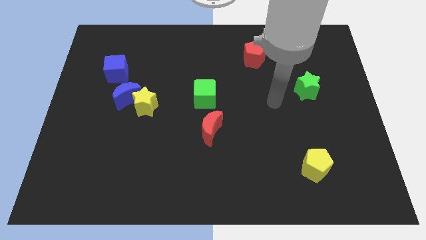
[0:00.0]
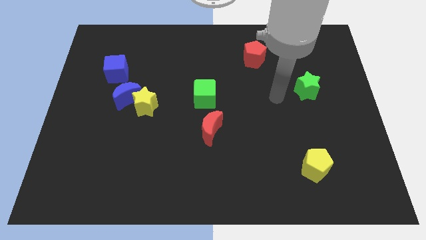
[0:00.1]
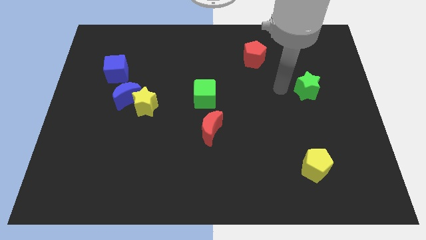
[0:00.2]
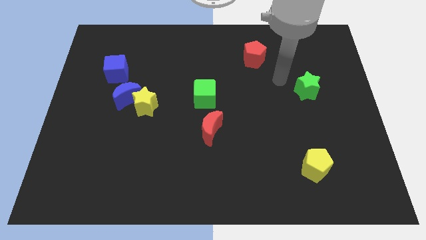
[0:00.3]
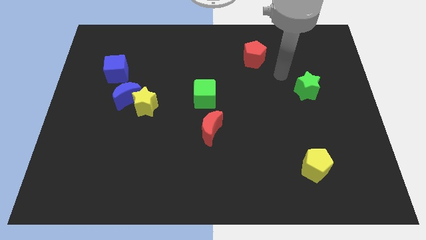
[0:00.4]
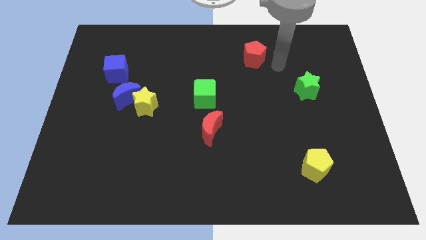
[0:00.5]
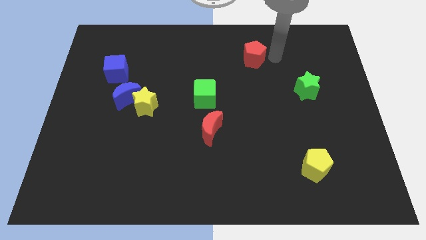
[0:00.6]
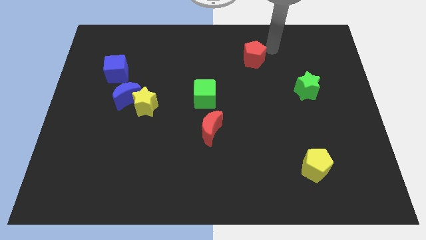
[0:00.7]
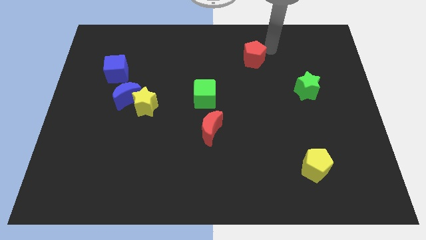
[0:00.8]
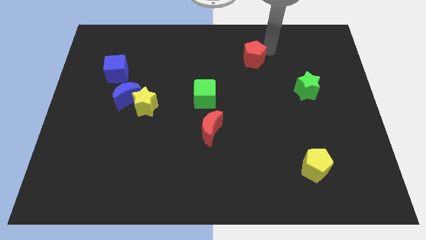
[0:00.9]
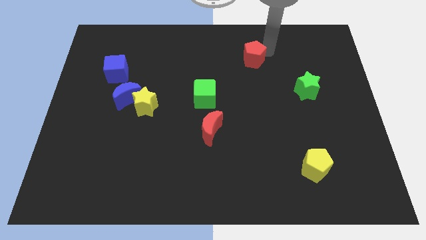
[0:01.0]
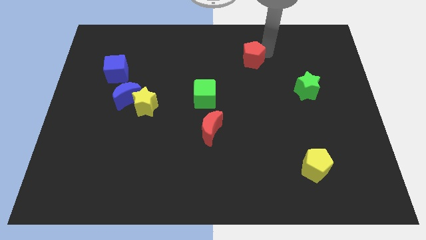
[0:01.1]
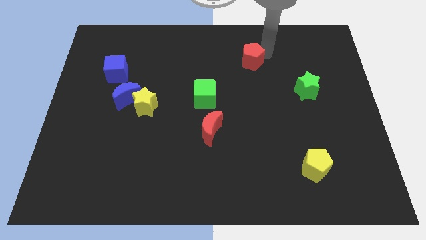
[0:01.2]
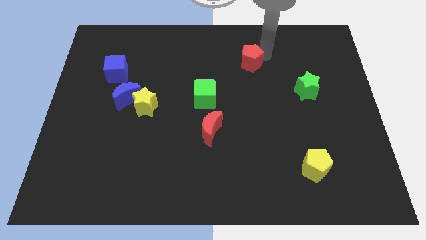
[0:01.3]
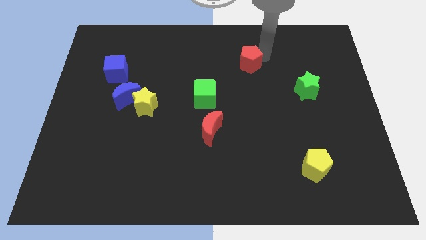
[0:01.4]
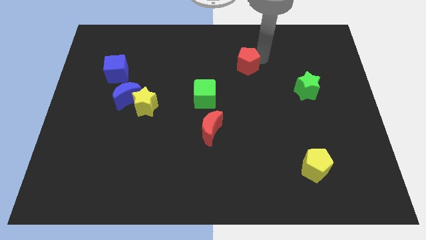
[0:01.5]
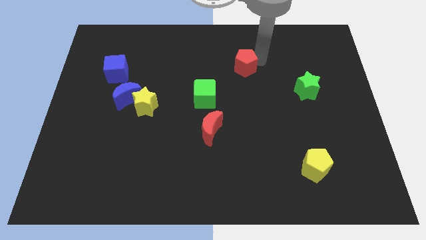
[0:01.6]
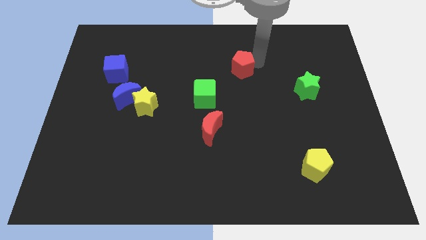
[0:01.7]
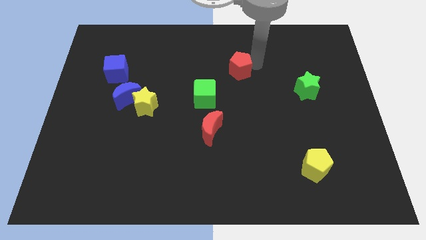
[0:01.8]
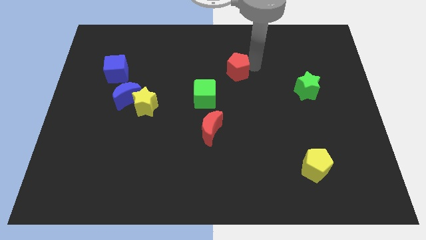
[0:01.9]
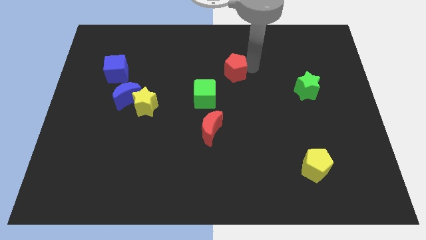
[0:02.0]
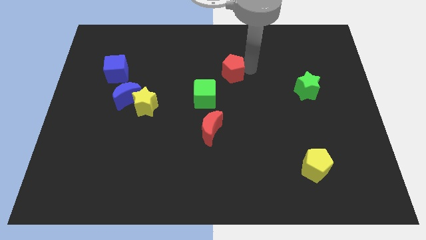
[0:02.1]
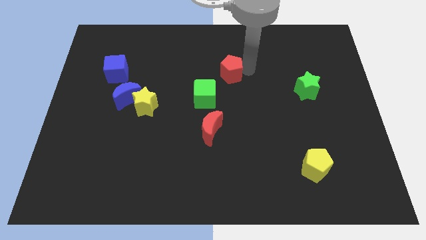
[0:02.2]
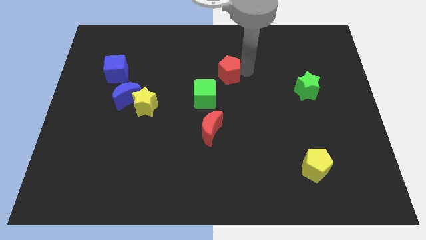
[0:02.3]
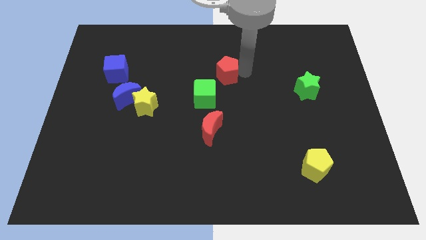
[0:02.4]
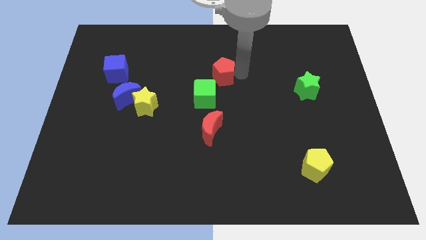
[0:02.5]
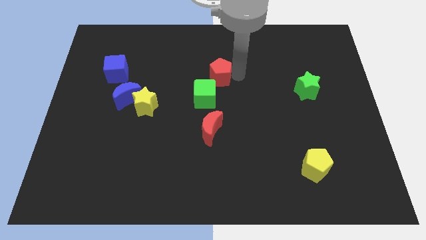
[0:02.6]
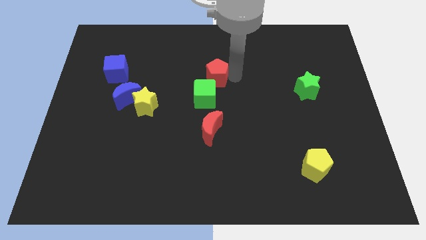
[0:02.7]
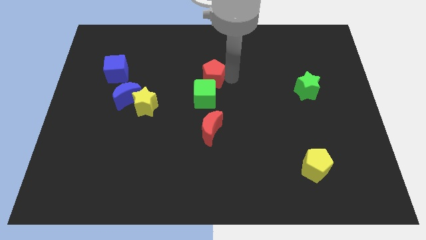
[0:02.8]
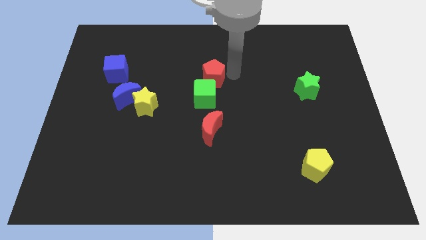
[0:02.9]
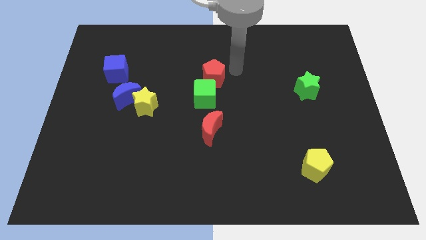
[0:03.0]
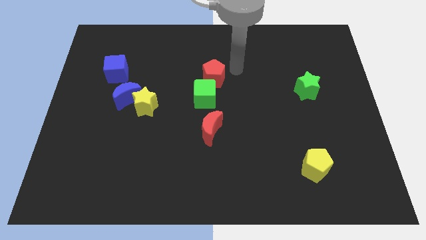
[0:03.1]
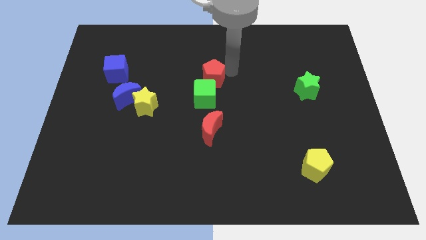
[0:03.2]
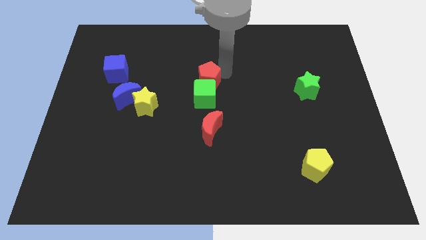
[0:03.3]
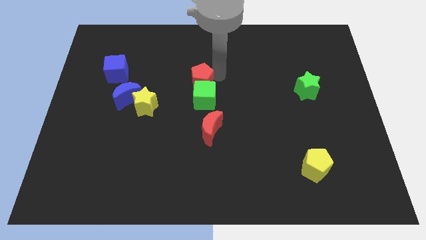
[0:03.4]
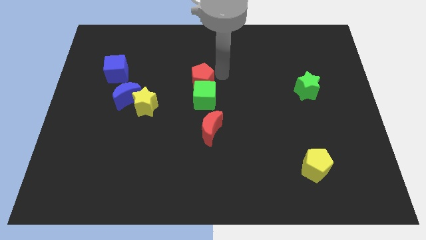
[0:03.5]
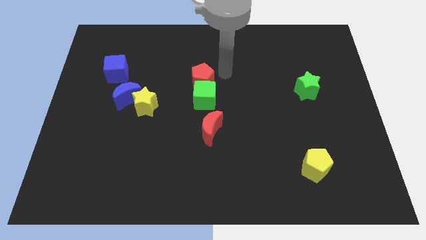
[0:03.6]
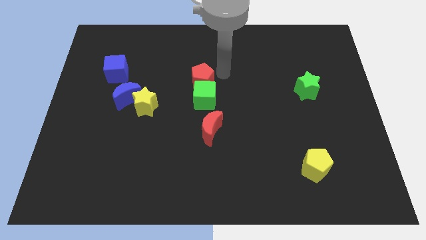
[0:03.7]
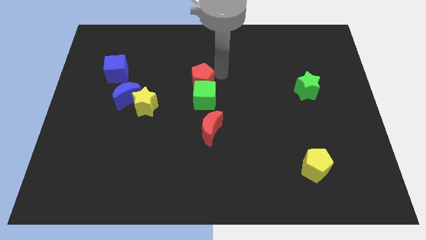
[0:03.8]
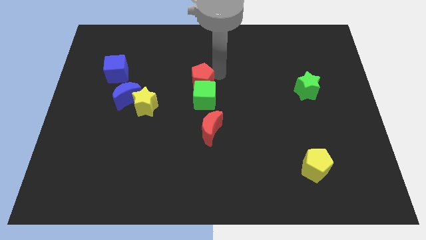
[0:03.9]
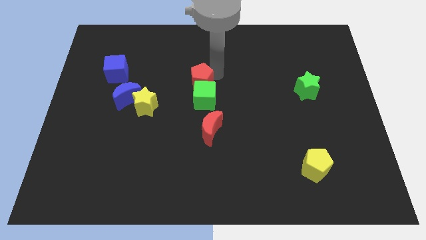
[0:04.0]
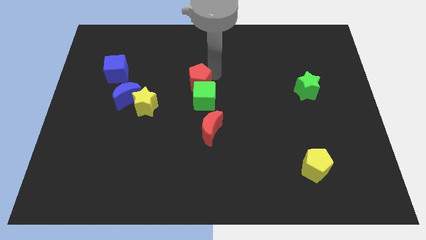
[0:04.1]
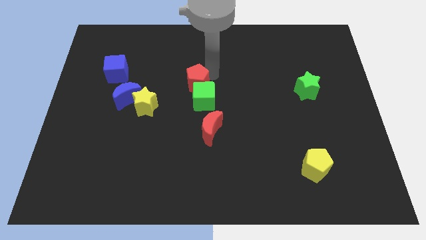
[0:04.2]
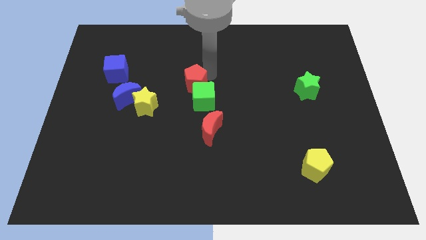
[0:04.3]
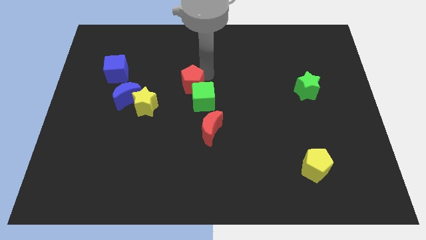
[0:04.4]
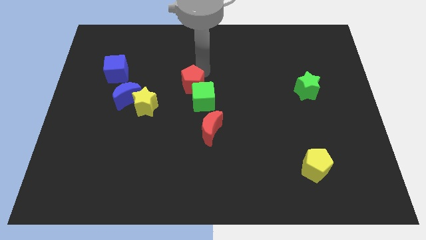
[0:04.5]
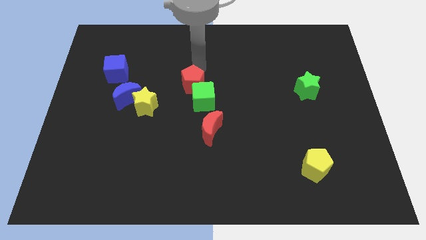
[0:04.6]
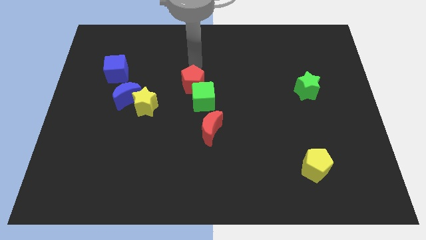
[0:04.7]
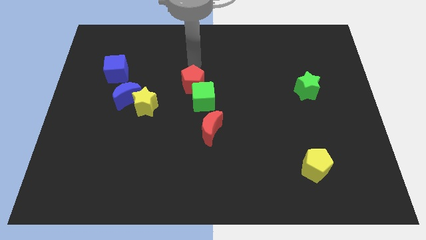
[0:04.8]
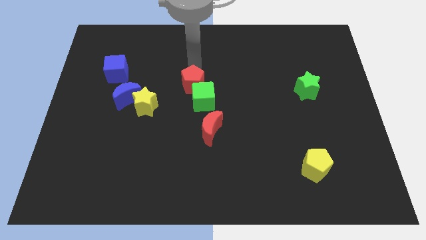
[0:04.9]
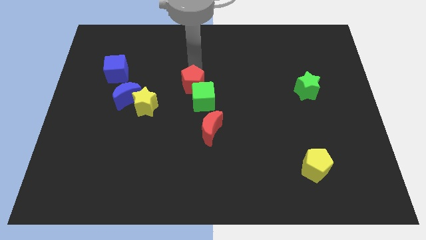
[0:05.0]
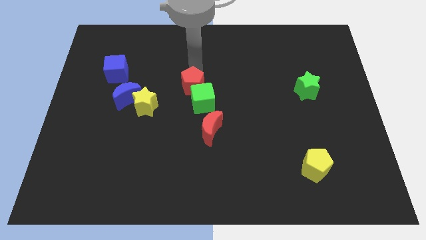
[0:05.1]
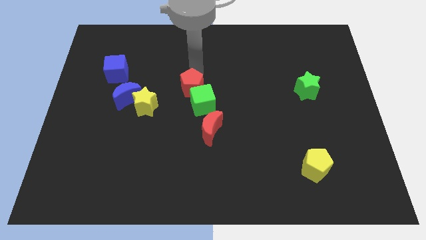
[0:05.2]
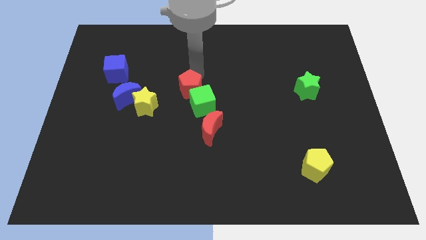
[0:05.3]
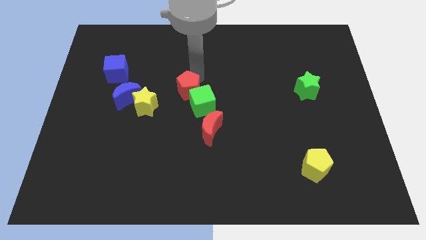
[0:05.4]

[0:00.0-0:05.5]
move the red pentagon to the right of the yellow star

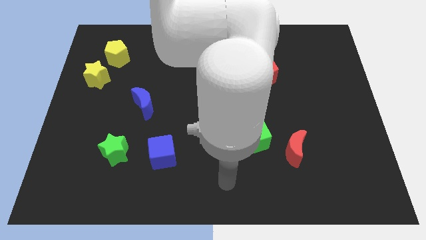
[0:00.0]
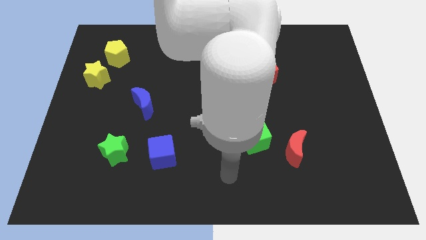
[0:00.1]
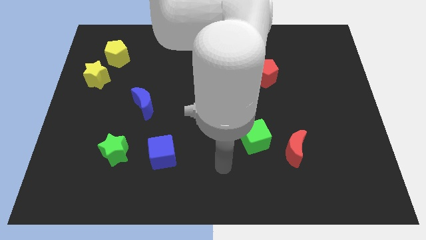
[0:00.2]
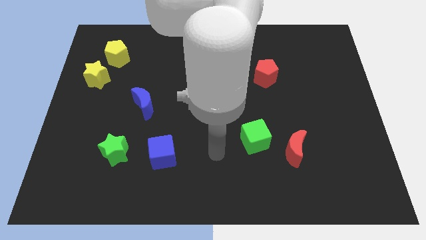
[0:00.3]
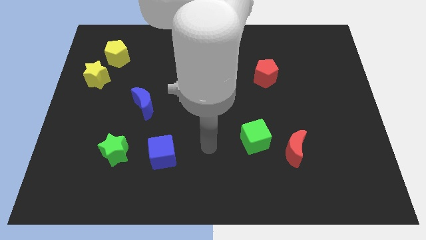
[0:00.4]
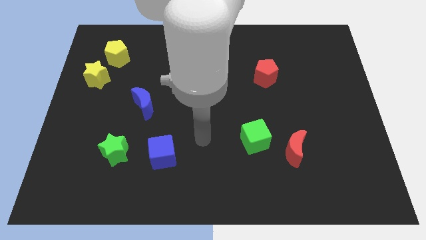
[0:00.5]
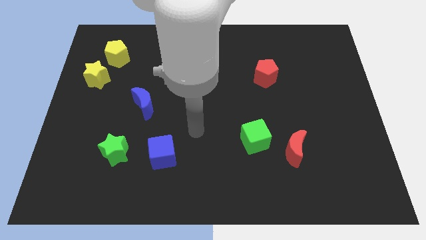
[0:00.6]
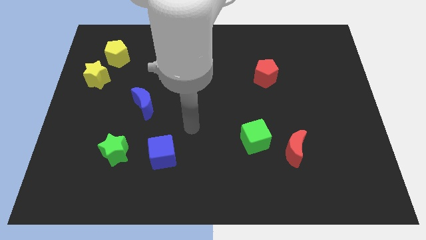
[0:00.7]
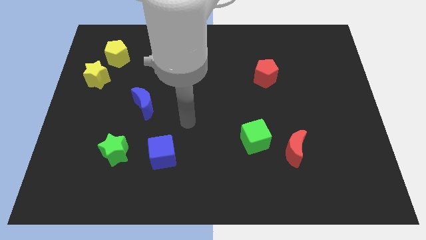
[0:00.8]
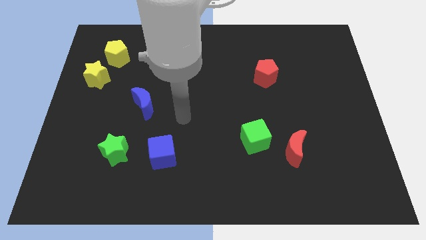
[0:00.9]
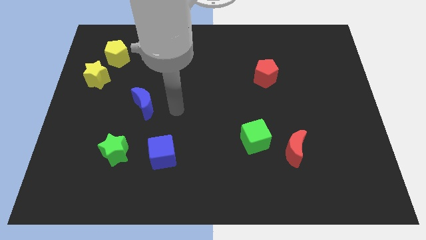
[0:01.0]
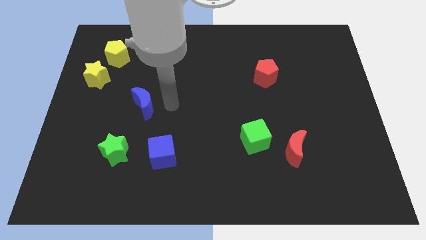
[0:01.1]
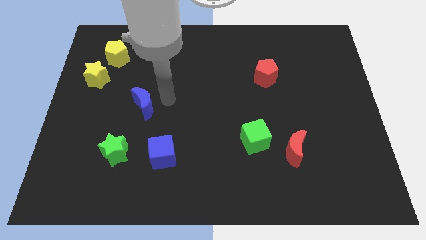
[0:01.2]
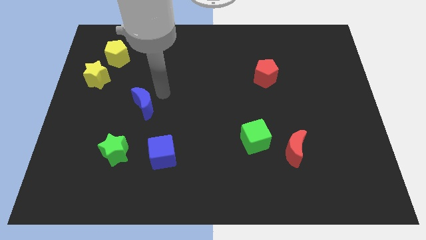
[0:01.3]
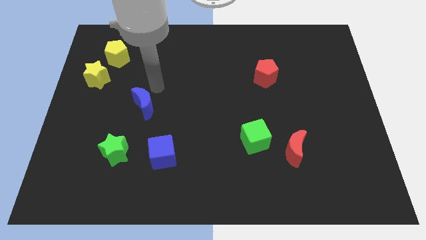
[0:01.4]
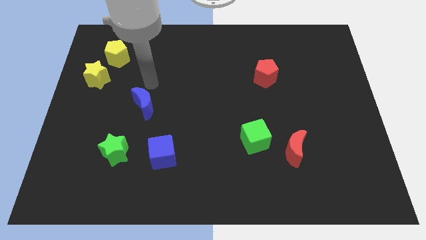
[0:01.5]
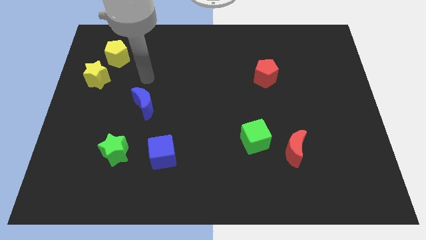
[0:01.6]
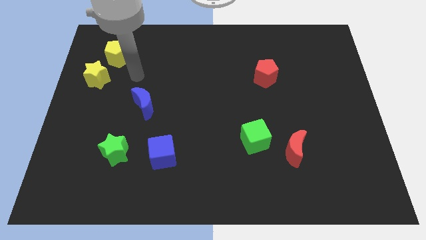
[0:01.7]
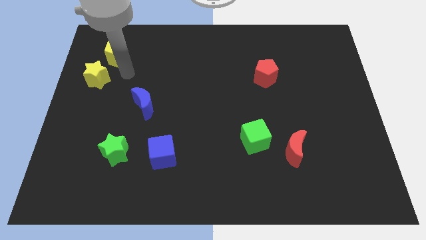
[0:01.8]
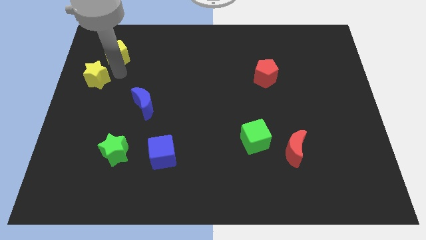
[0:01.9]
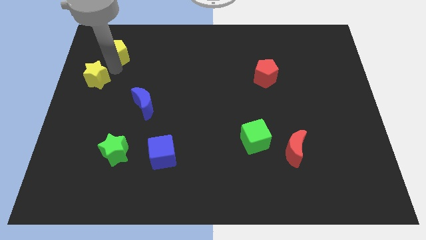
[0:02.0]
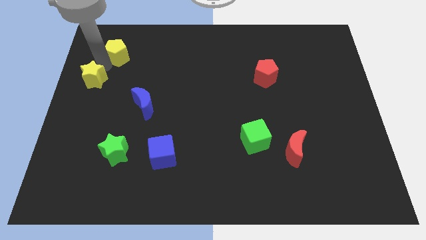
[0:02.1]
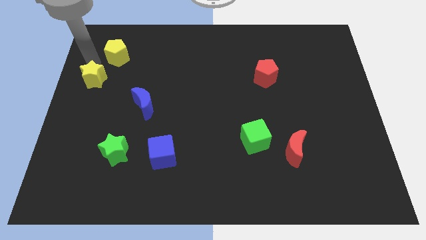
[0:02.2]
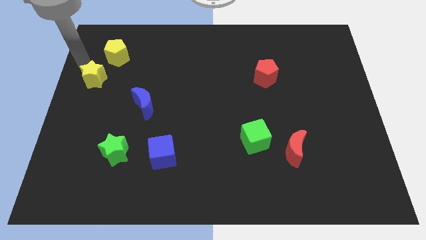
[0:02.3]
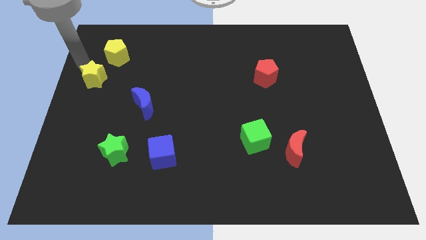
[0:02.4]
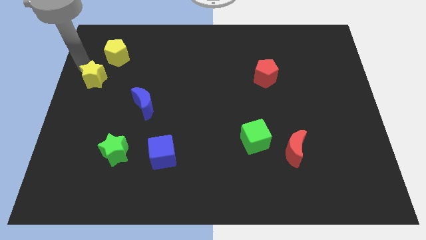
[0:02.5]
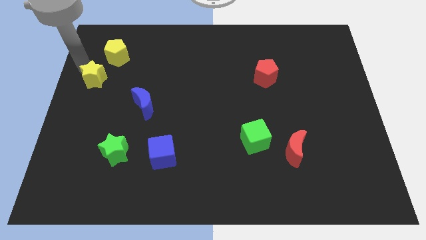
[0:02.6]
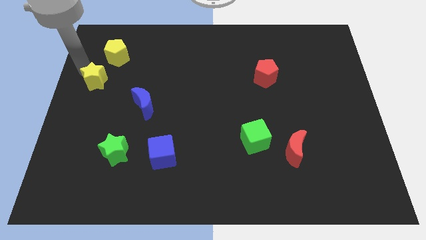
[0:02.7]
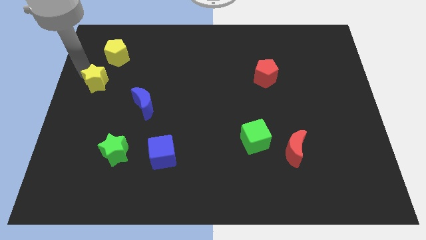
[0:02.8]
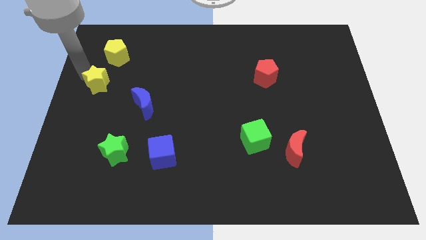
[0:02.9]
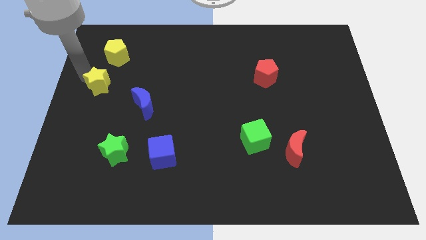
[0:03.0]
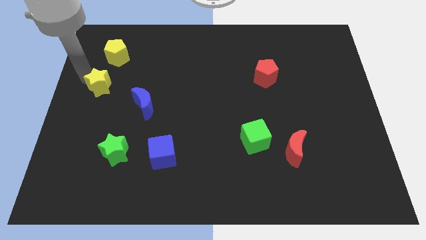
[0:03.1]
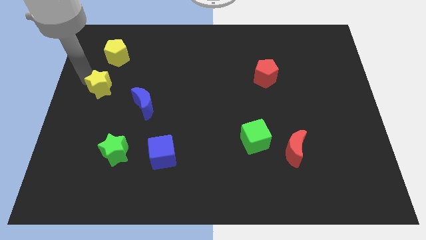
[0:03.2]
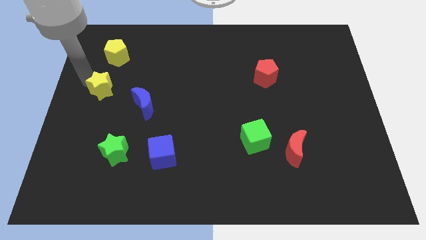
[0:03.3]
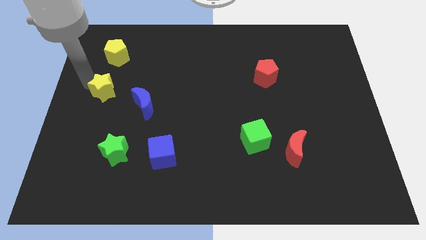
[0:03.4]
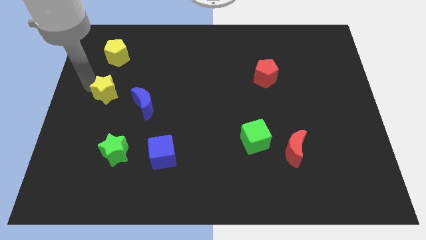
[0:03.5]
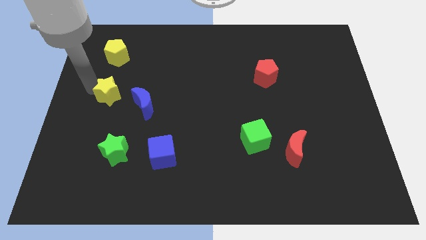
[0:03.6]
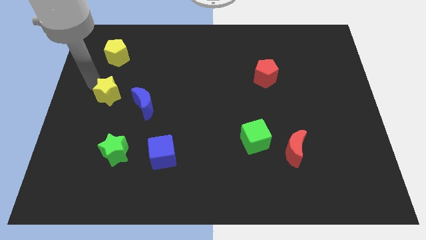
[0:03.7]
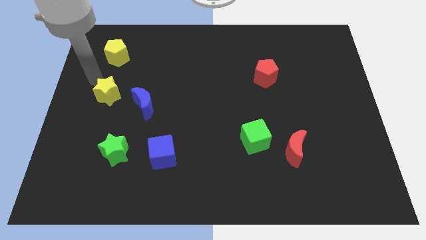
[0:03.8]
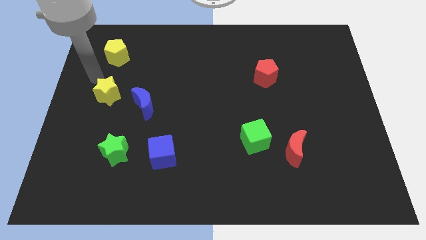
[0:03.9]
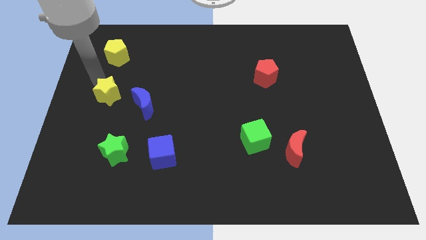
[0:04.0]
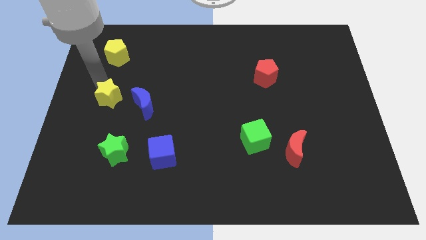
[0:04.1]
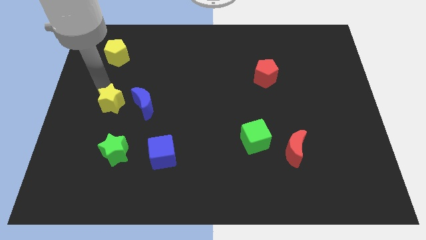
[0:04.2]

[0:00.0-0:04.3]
slide the yellow star above the green star
